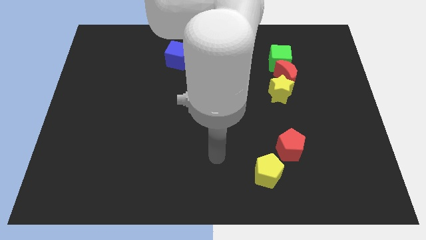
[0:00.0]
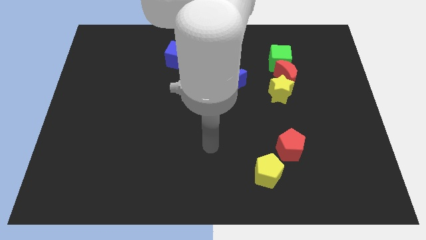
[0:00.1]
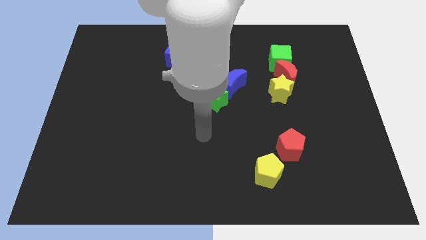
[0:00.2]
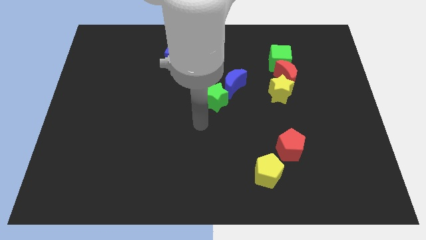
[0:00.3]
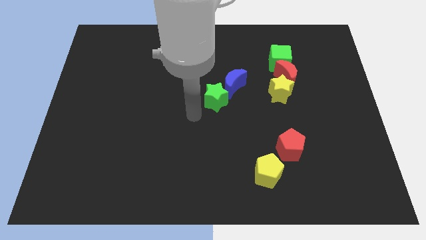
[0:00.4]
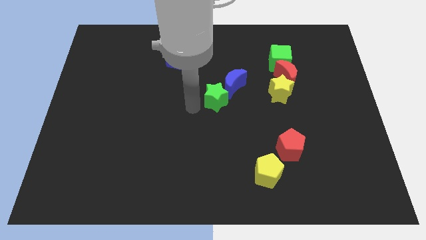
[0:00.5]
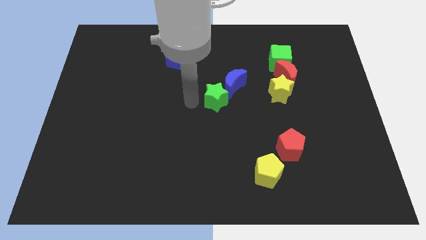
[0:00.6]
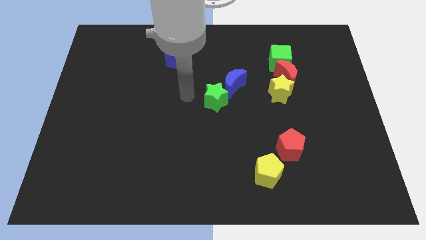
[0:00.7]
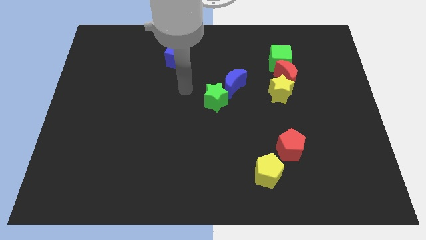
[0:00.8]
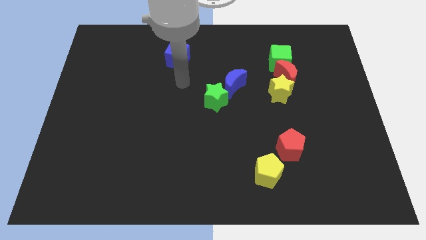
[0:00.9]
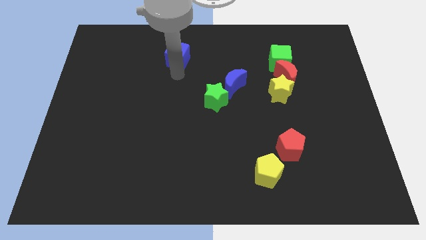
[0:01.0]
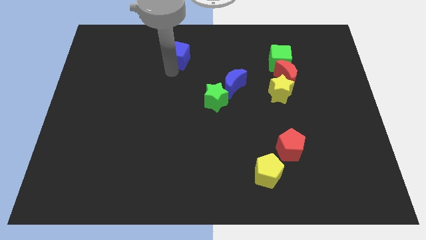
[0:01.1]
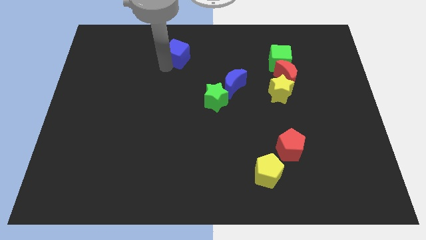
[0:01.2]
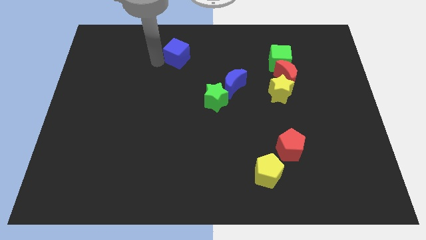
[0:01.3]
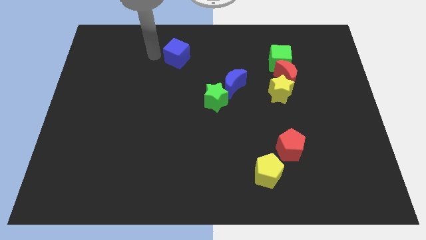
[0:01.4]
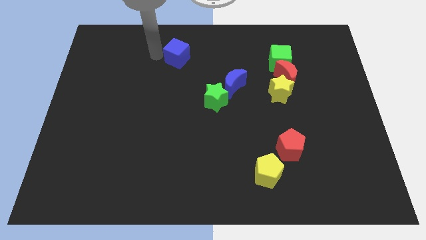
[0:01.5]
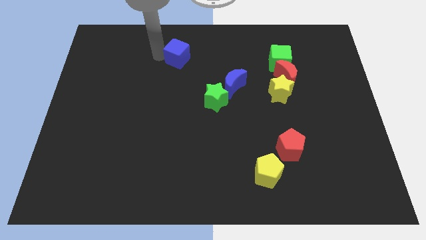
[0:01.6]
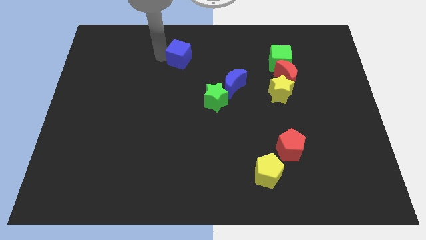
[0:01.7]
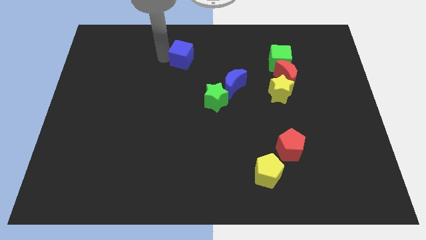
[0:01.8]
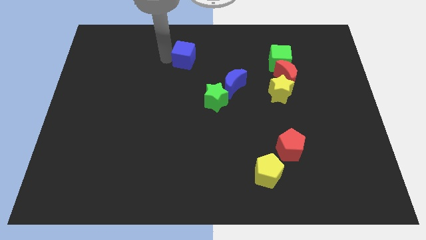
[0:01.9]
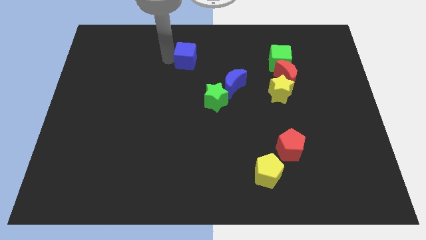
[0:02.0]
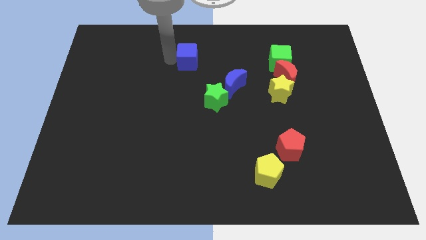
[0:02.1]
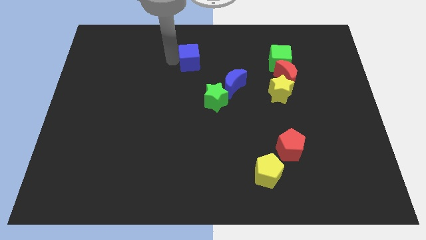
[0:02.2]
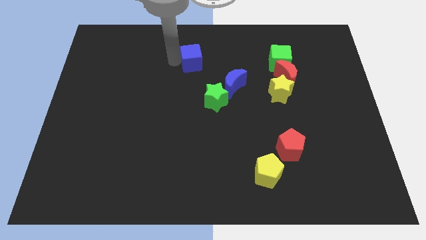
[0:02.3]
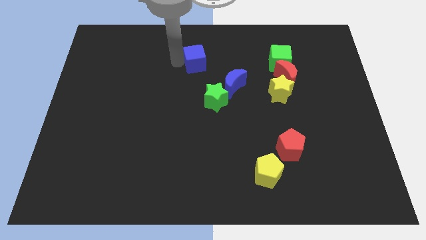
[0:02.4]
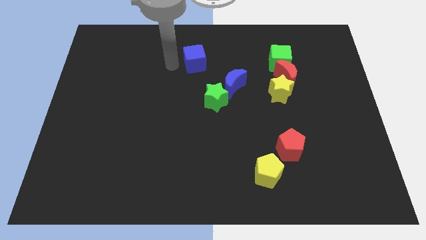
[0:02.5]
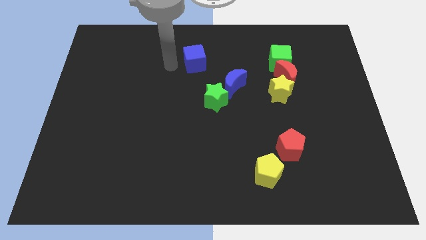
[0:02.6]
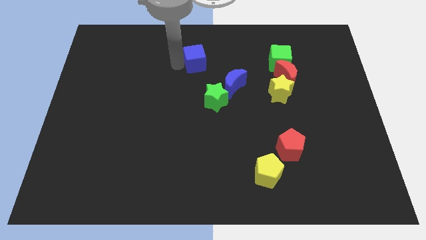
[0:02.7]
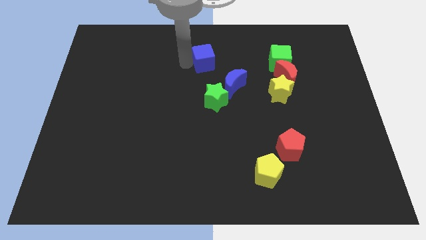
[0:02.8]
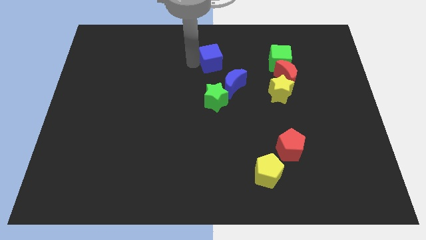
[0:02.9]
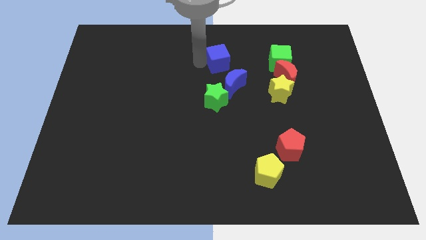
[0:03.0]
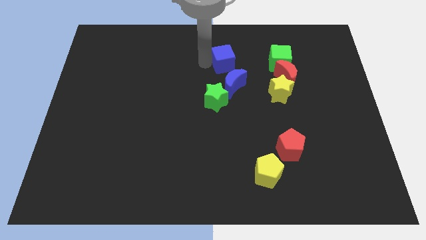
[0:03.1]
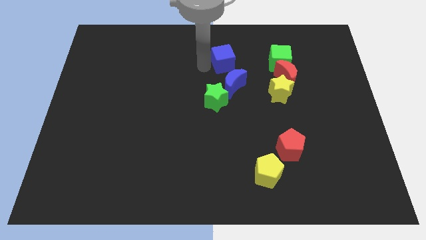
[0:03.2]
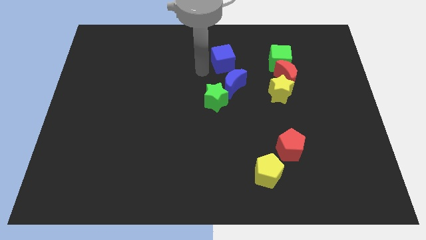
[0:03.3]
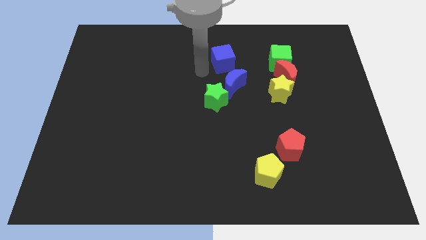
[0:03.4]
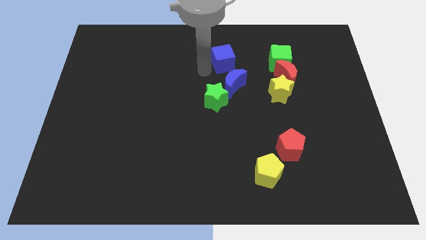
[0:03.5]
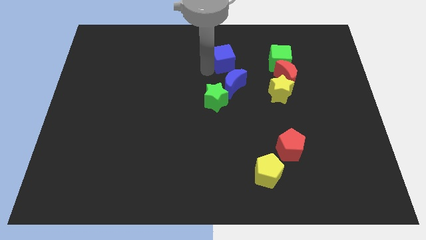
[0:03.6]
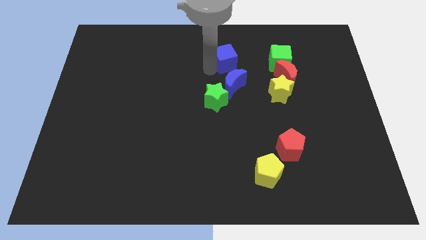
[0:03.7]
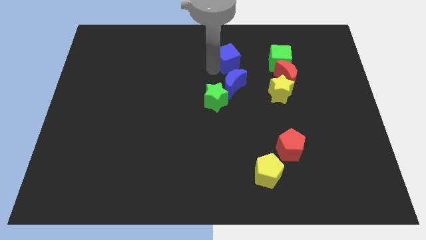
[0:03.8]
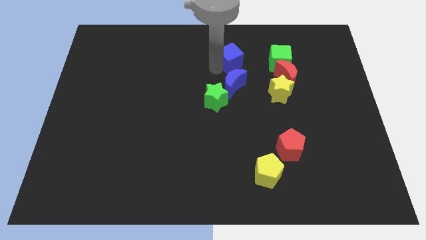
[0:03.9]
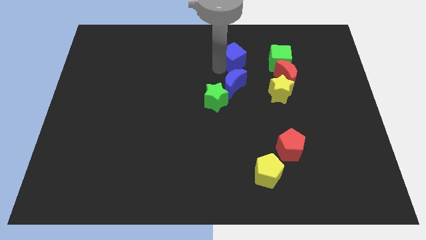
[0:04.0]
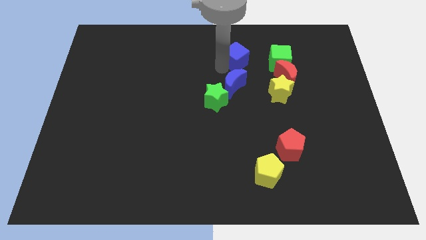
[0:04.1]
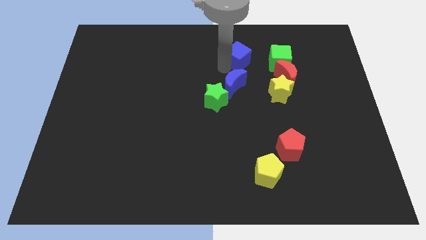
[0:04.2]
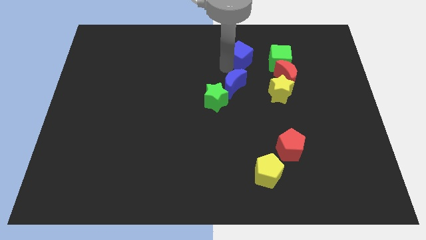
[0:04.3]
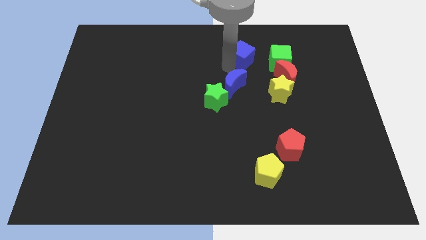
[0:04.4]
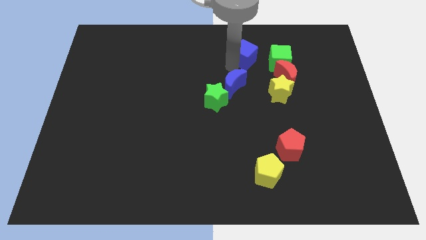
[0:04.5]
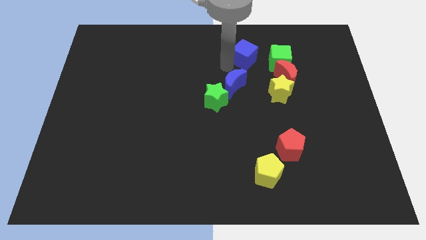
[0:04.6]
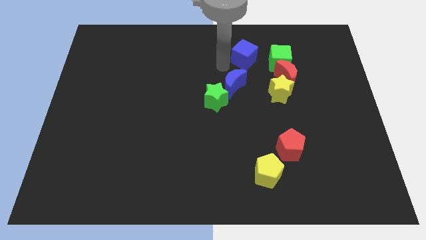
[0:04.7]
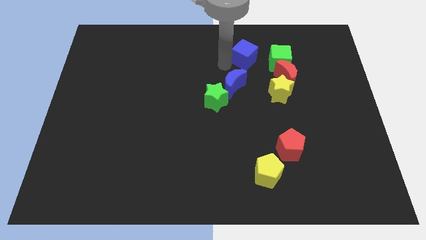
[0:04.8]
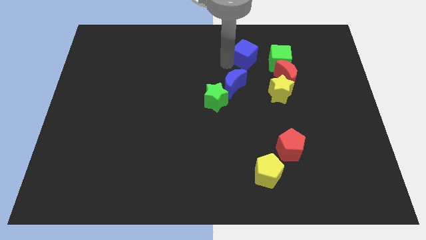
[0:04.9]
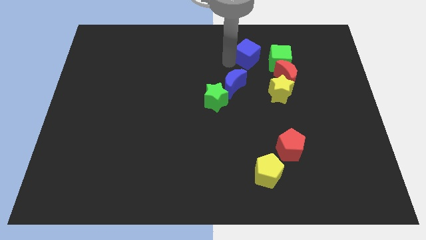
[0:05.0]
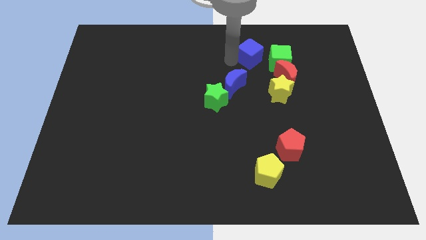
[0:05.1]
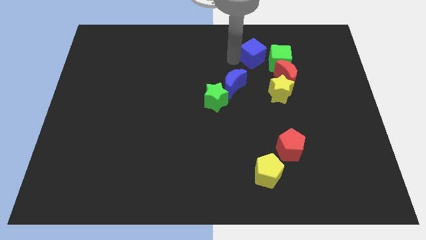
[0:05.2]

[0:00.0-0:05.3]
move the blue cube right

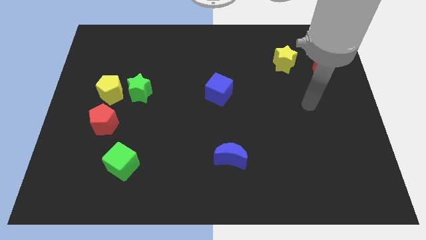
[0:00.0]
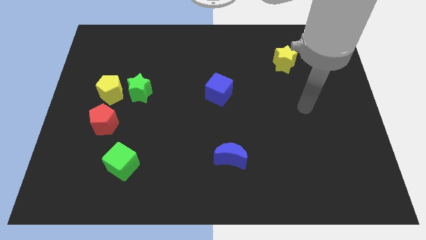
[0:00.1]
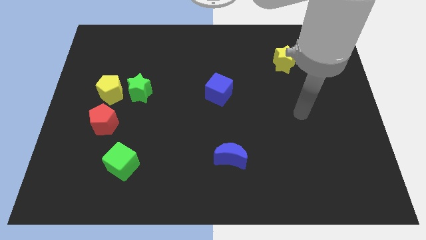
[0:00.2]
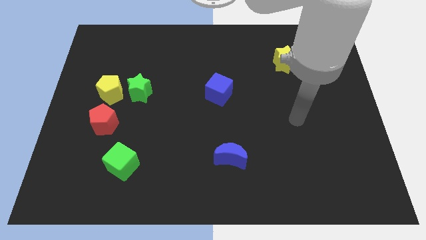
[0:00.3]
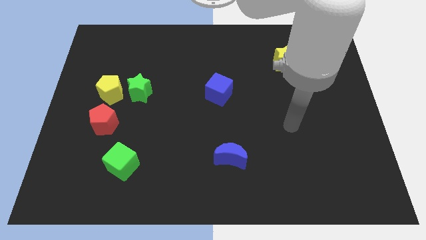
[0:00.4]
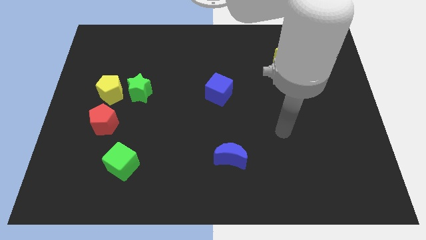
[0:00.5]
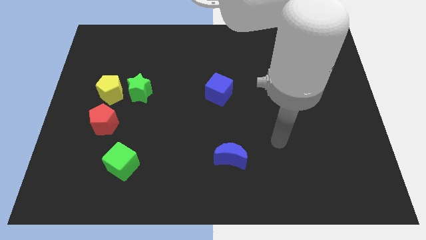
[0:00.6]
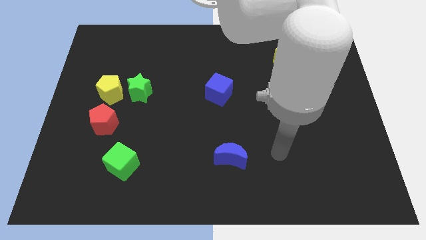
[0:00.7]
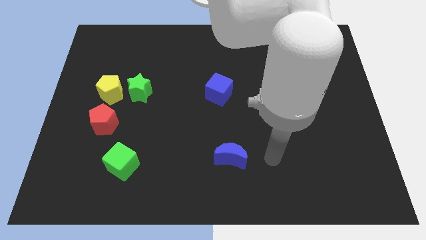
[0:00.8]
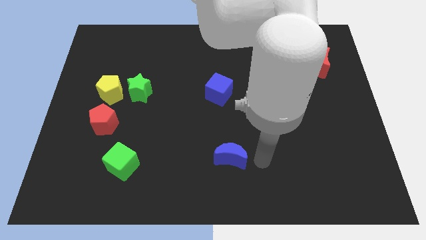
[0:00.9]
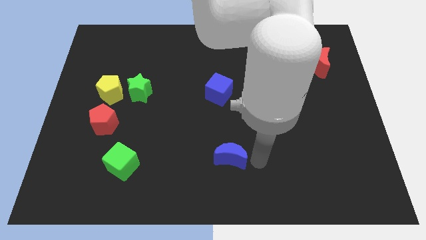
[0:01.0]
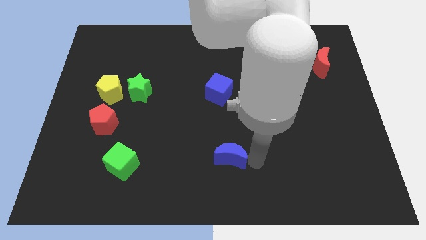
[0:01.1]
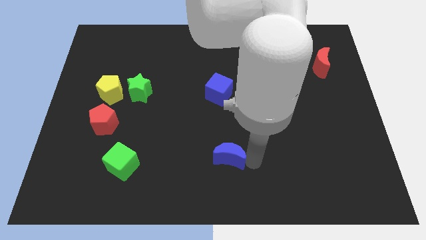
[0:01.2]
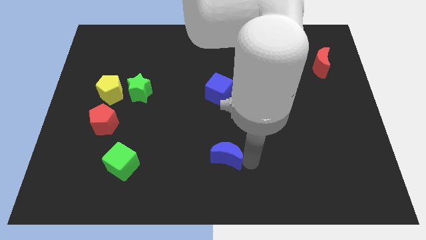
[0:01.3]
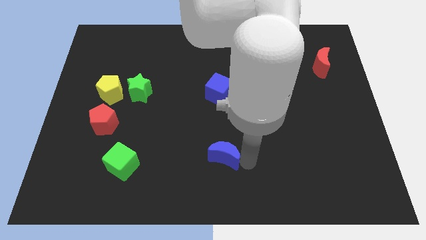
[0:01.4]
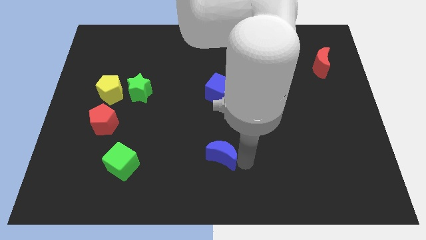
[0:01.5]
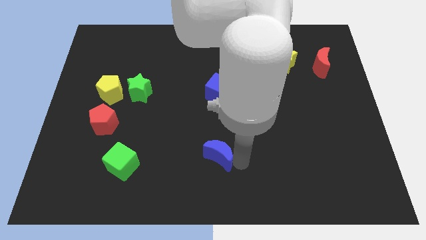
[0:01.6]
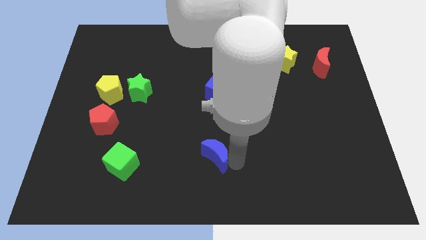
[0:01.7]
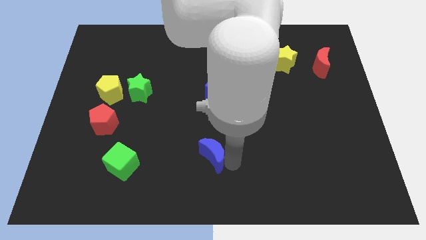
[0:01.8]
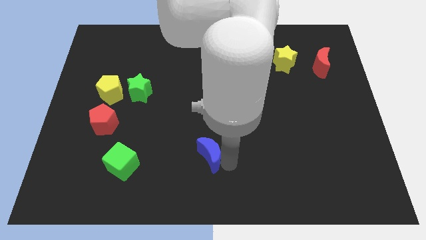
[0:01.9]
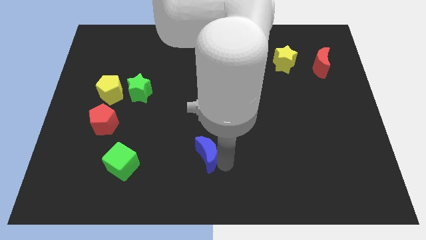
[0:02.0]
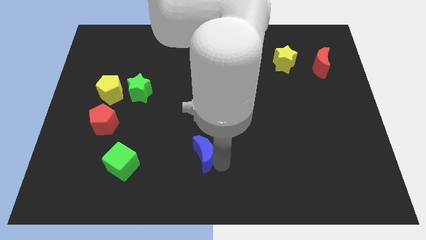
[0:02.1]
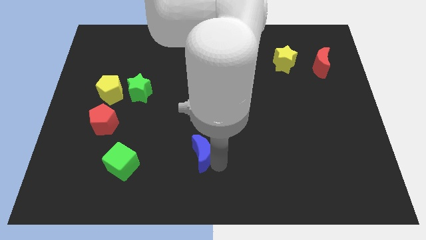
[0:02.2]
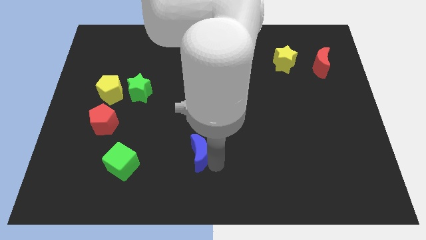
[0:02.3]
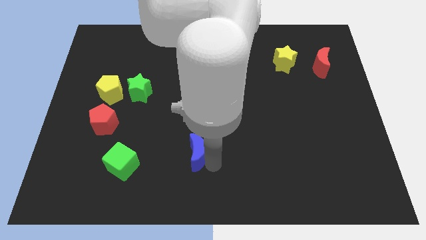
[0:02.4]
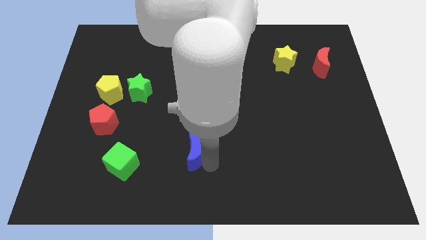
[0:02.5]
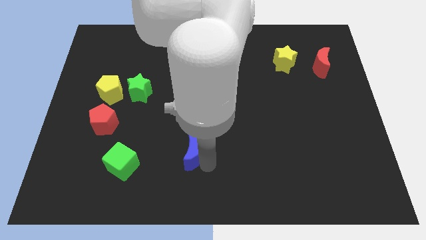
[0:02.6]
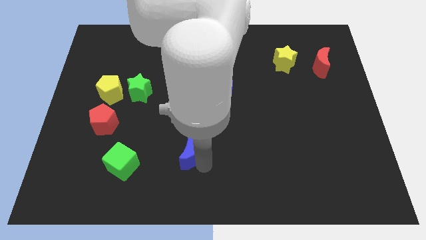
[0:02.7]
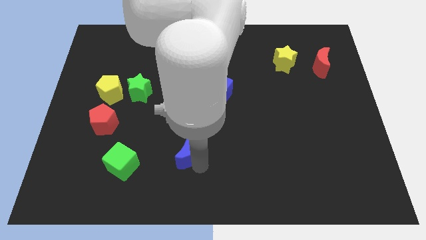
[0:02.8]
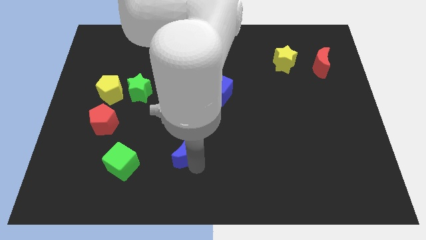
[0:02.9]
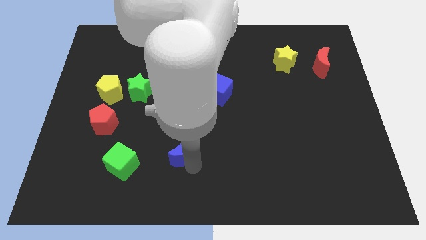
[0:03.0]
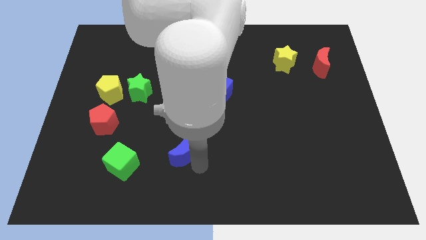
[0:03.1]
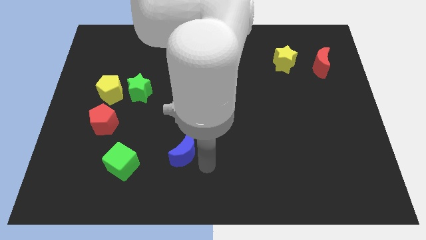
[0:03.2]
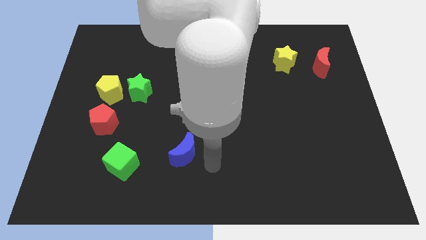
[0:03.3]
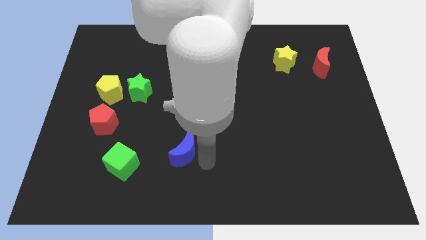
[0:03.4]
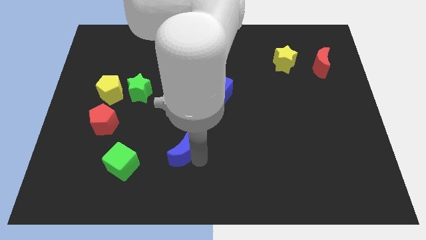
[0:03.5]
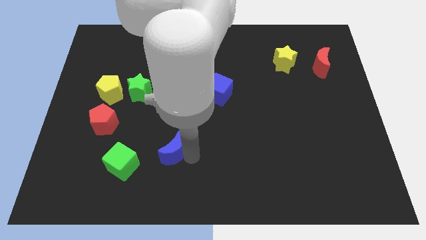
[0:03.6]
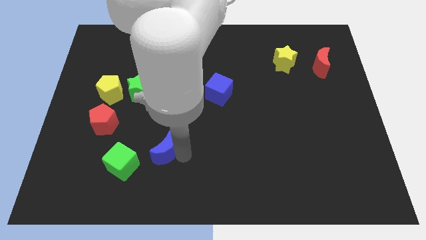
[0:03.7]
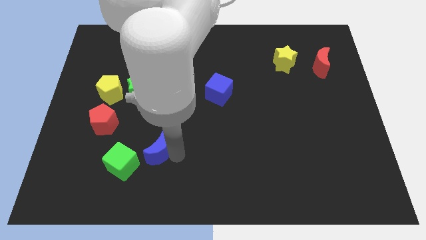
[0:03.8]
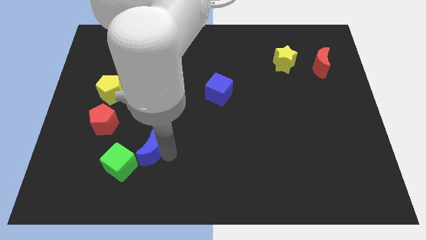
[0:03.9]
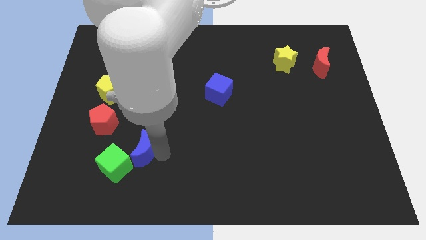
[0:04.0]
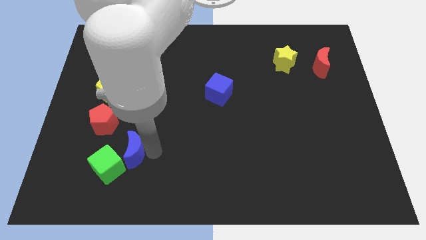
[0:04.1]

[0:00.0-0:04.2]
slide the blue moon to the left
